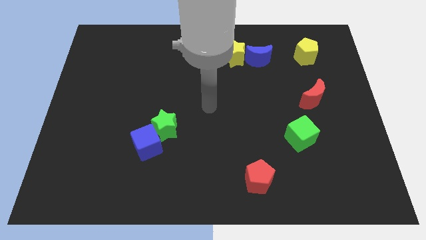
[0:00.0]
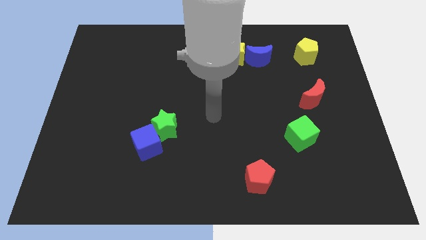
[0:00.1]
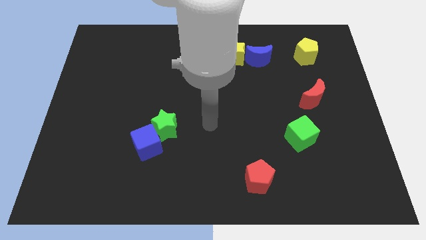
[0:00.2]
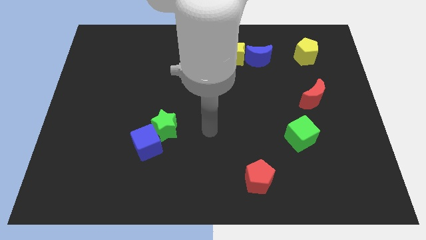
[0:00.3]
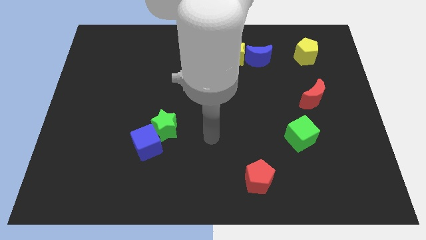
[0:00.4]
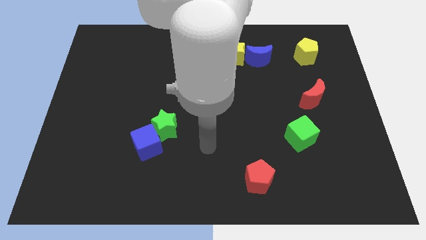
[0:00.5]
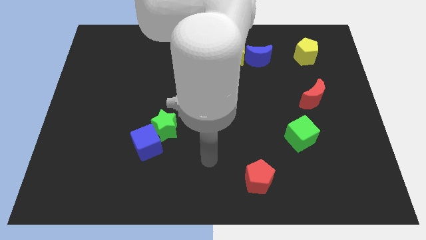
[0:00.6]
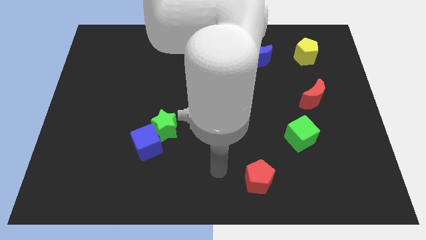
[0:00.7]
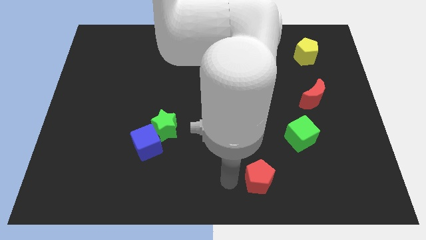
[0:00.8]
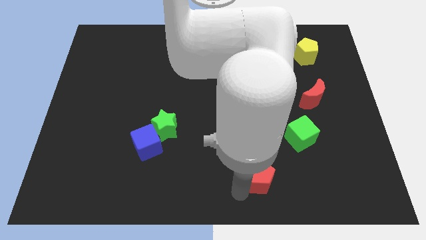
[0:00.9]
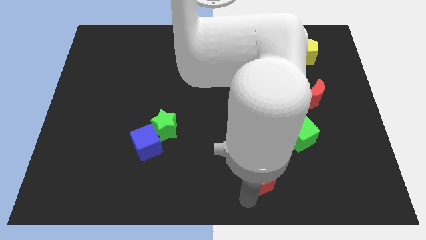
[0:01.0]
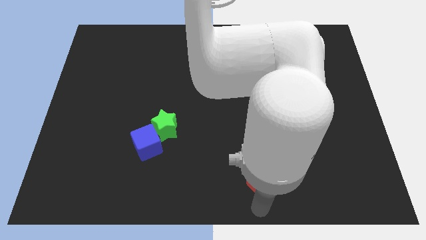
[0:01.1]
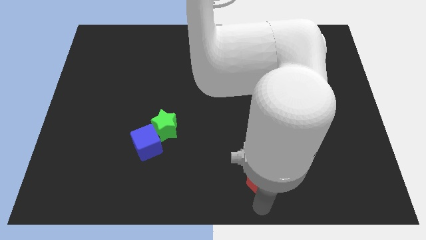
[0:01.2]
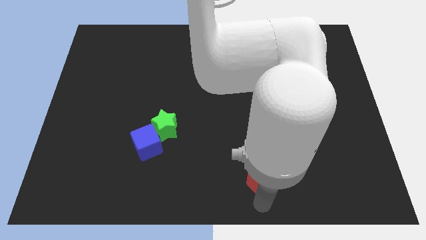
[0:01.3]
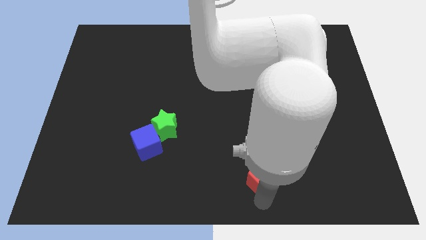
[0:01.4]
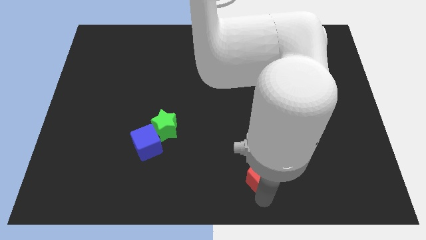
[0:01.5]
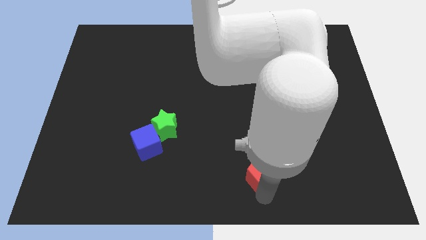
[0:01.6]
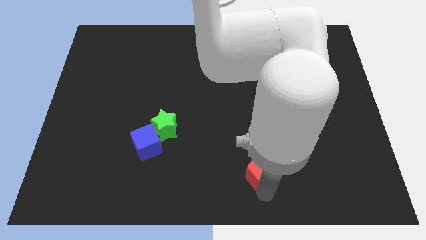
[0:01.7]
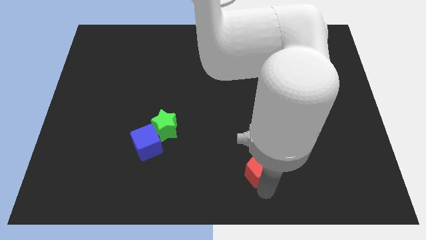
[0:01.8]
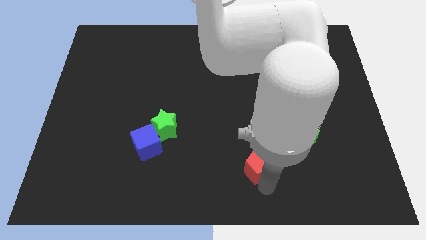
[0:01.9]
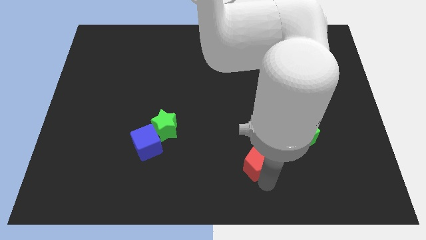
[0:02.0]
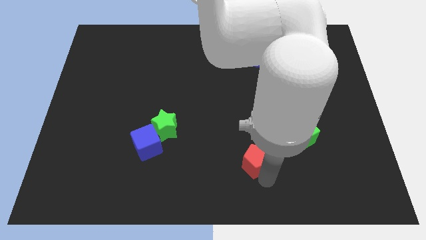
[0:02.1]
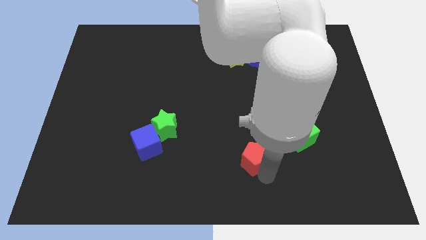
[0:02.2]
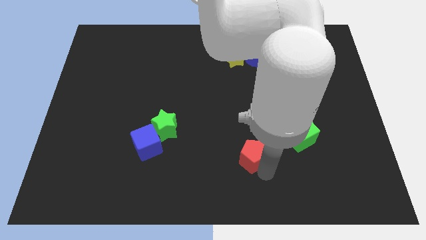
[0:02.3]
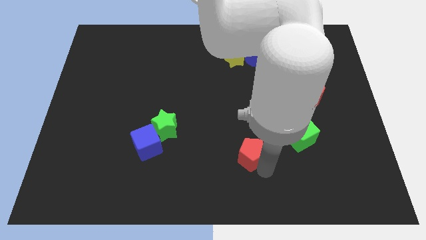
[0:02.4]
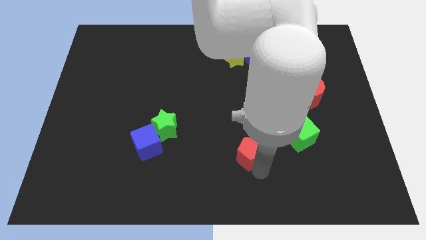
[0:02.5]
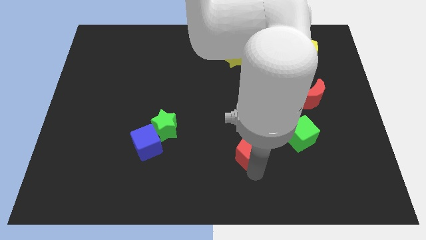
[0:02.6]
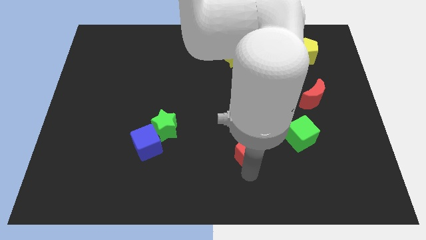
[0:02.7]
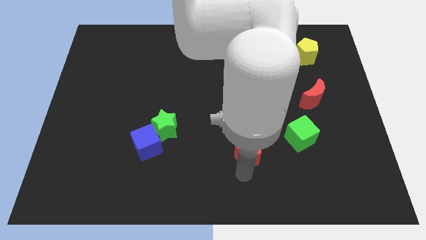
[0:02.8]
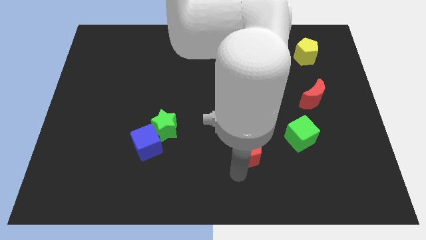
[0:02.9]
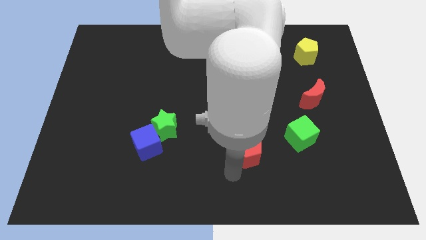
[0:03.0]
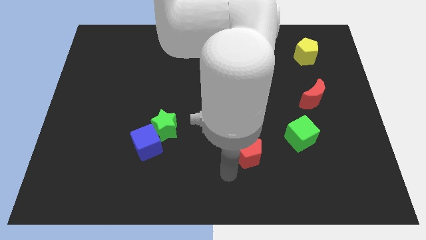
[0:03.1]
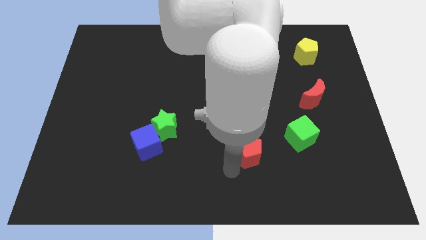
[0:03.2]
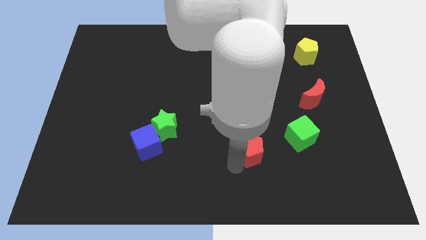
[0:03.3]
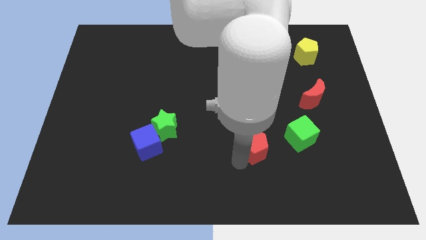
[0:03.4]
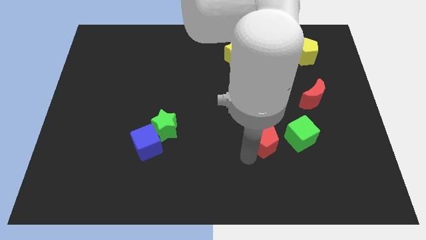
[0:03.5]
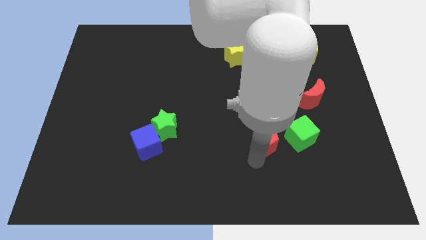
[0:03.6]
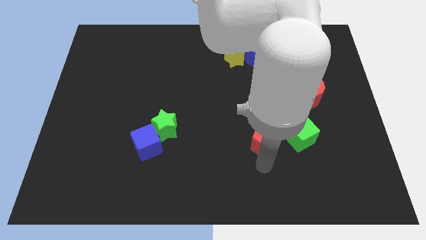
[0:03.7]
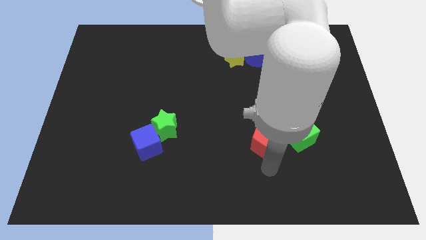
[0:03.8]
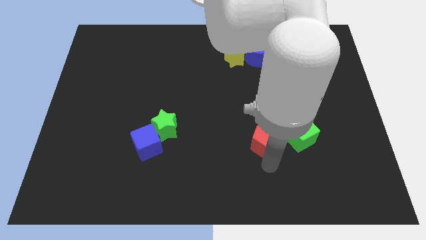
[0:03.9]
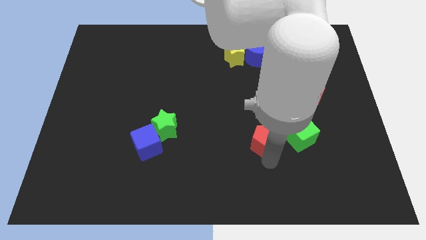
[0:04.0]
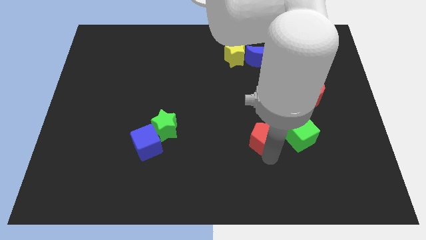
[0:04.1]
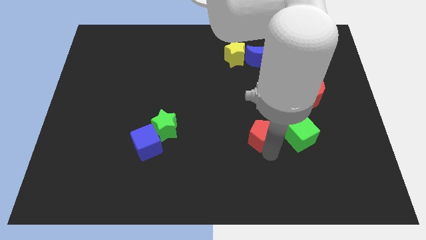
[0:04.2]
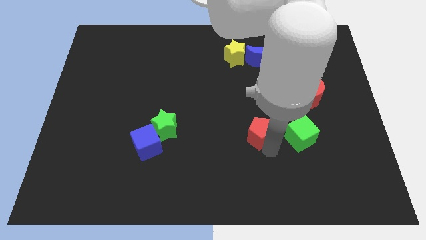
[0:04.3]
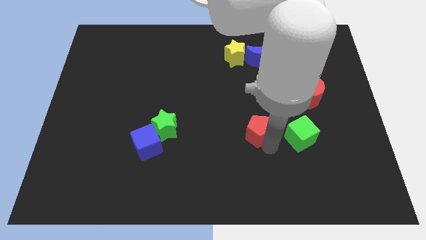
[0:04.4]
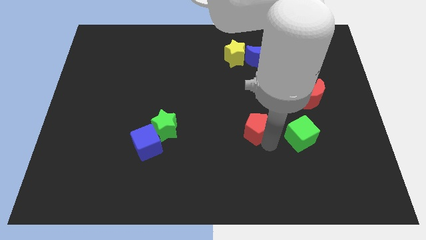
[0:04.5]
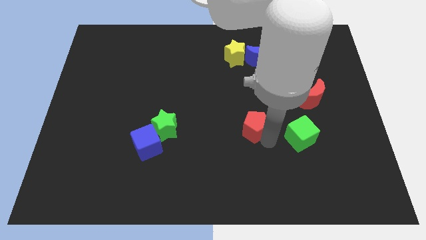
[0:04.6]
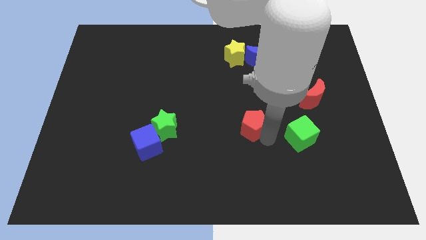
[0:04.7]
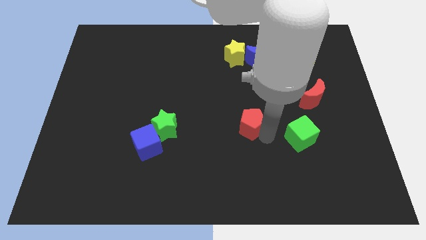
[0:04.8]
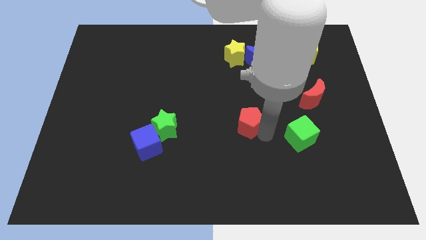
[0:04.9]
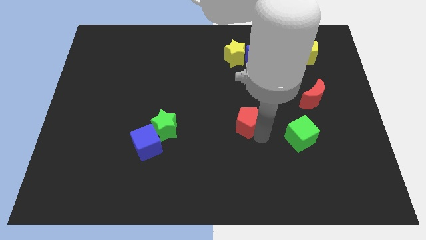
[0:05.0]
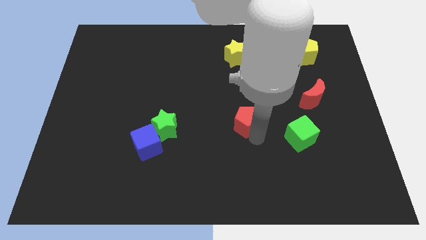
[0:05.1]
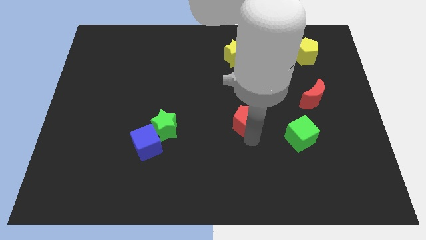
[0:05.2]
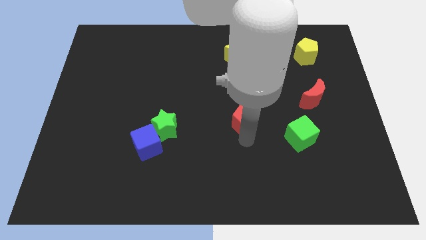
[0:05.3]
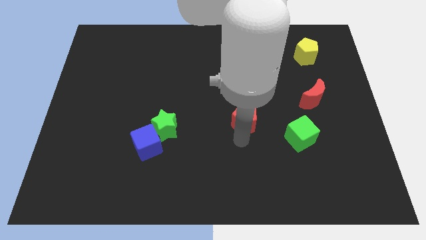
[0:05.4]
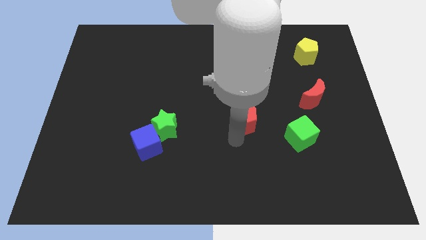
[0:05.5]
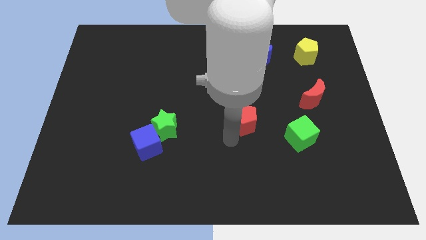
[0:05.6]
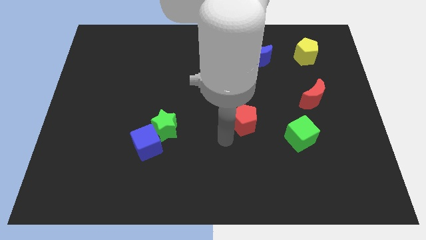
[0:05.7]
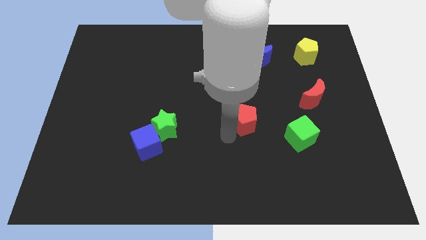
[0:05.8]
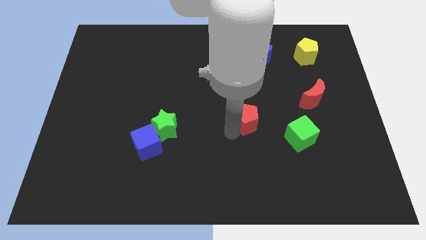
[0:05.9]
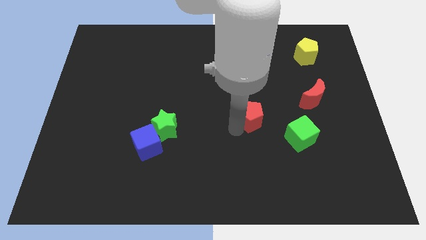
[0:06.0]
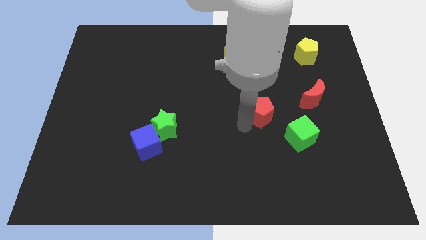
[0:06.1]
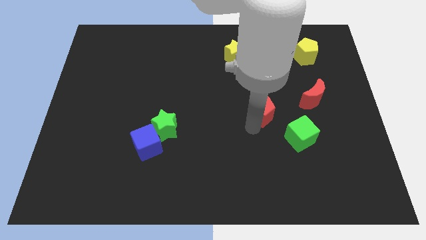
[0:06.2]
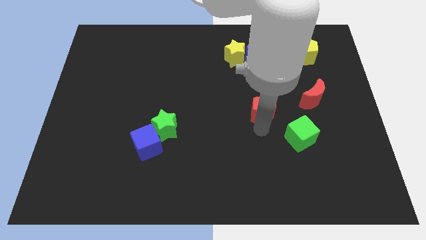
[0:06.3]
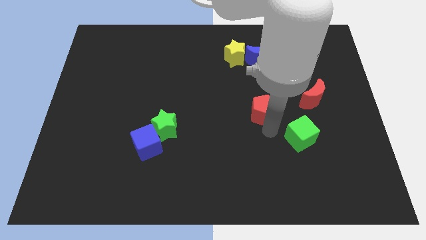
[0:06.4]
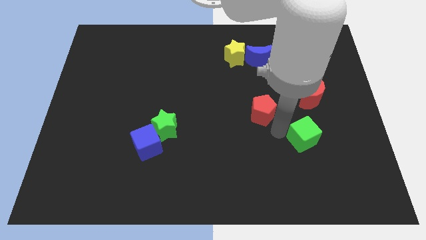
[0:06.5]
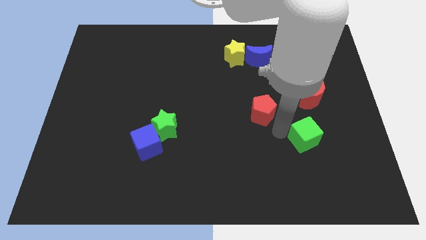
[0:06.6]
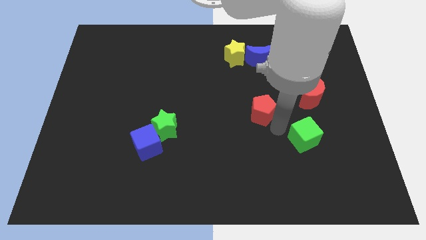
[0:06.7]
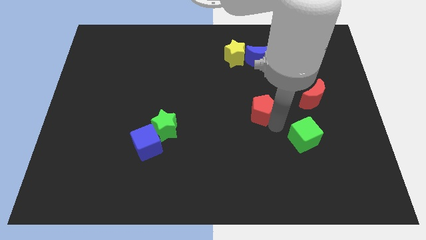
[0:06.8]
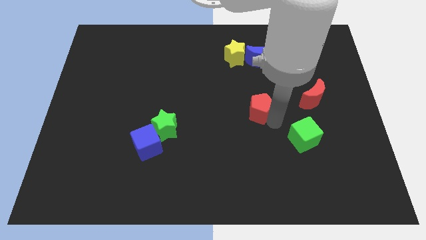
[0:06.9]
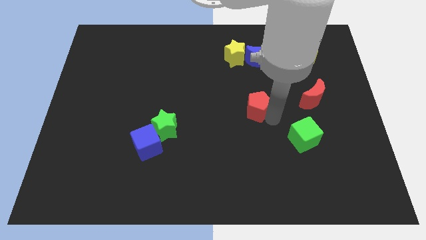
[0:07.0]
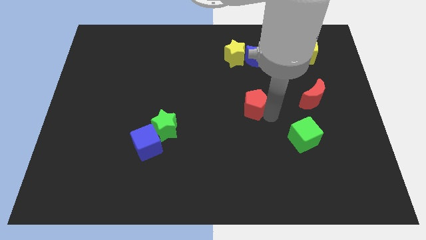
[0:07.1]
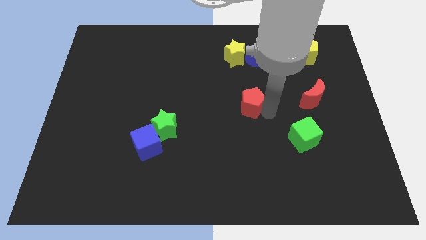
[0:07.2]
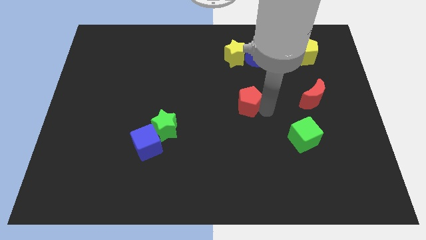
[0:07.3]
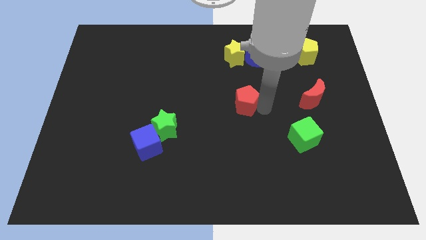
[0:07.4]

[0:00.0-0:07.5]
push the red pentagon below the yellow star

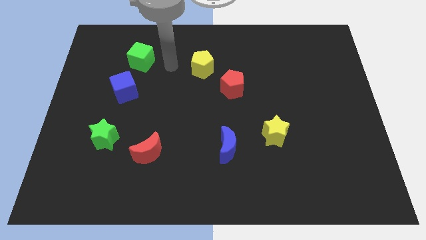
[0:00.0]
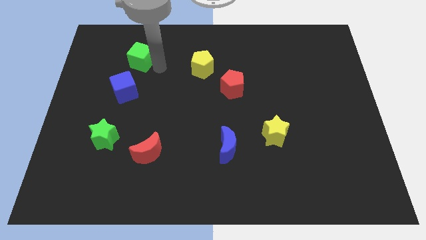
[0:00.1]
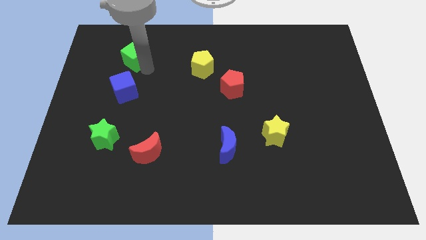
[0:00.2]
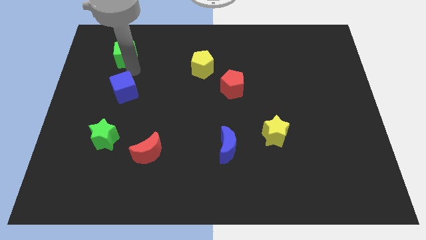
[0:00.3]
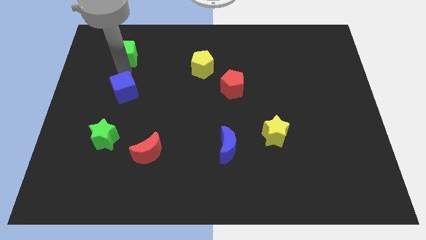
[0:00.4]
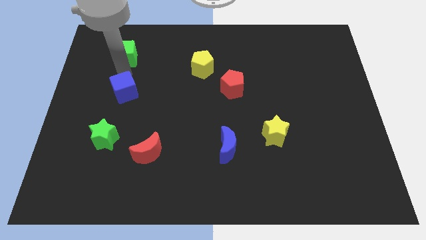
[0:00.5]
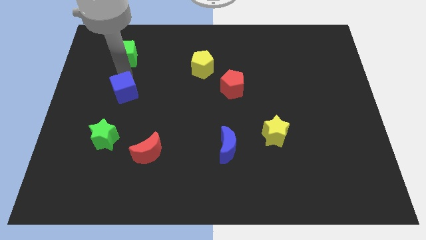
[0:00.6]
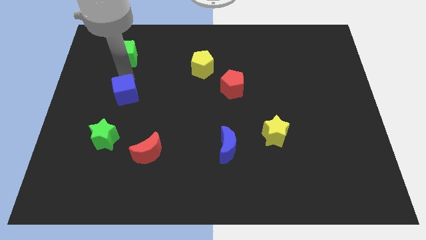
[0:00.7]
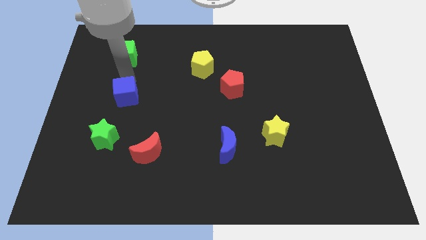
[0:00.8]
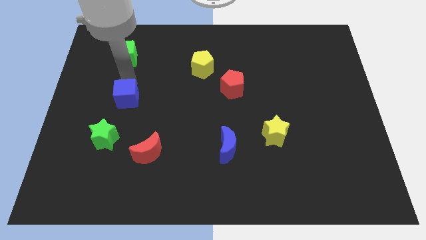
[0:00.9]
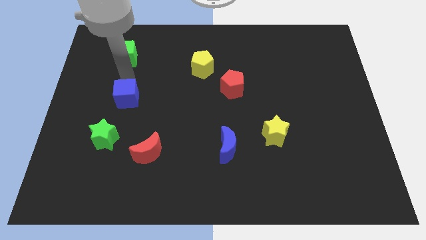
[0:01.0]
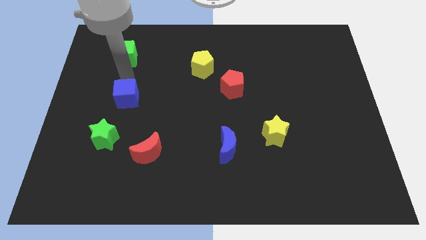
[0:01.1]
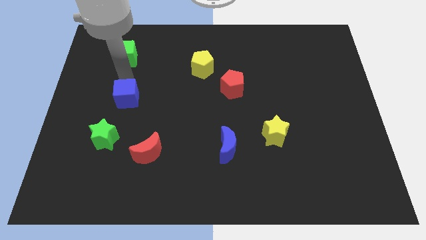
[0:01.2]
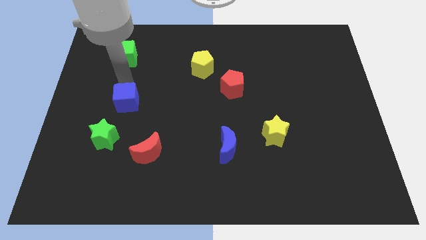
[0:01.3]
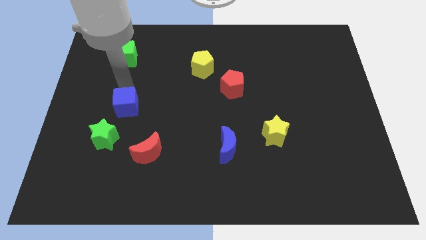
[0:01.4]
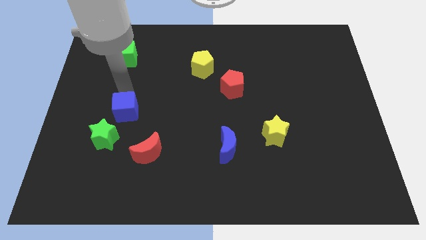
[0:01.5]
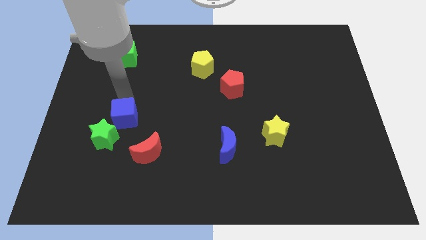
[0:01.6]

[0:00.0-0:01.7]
put the blue cube diagonally up and to the left of the red moon
